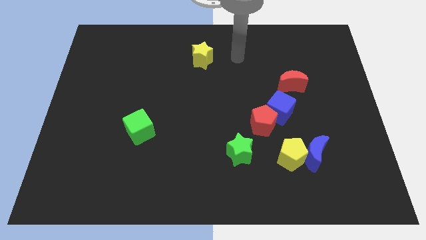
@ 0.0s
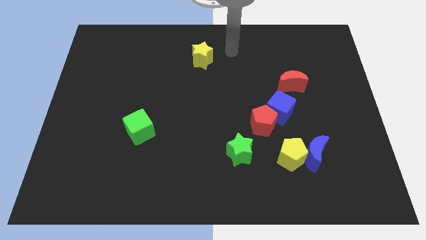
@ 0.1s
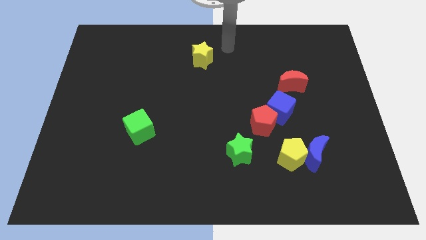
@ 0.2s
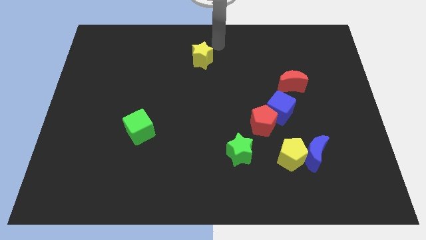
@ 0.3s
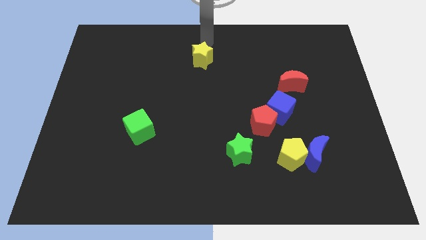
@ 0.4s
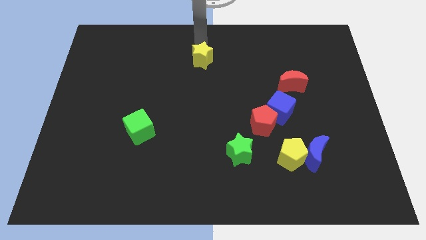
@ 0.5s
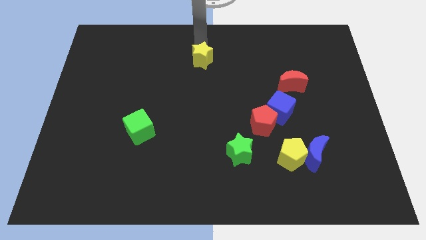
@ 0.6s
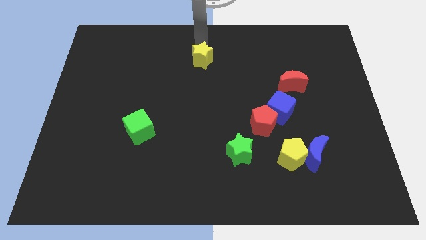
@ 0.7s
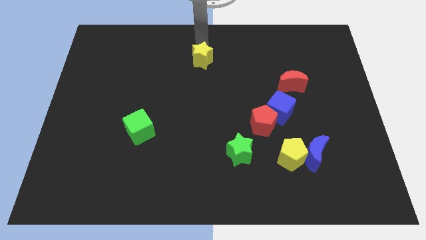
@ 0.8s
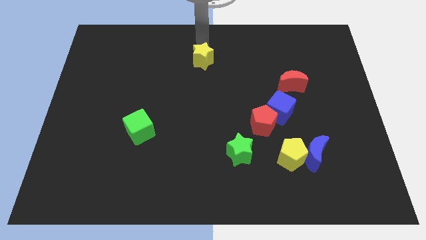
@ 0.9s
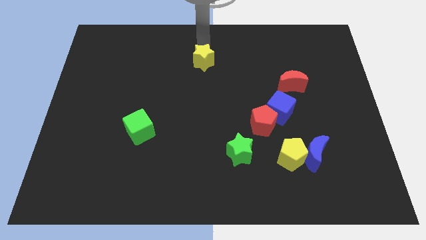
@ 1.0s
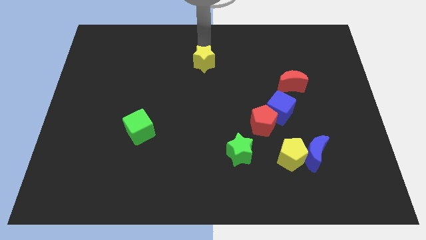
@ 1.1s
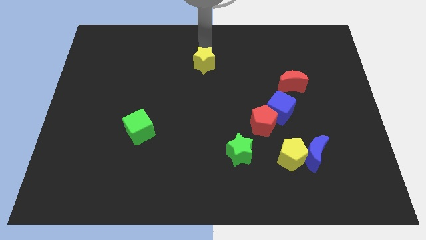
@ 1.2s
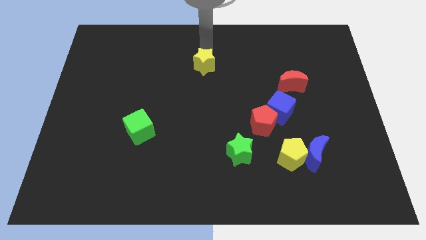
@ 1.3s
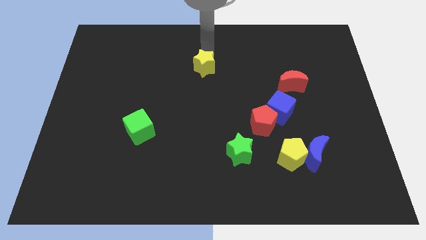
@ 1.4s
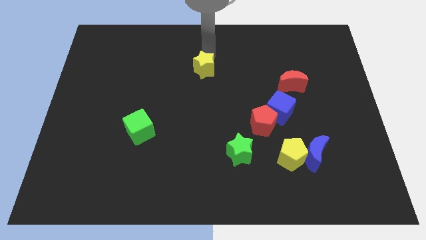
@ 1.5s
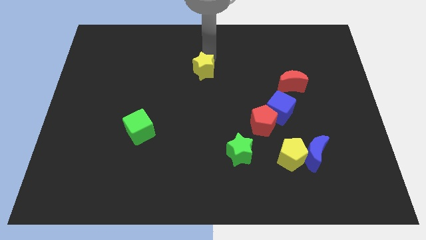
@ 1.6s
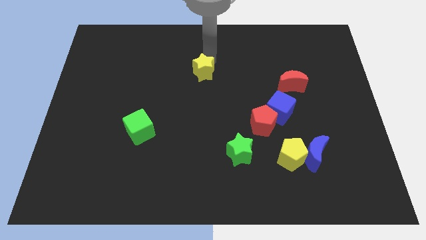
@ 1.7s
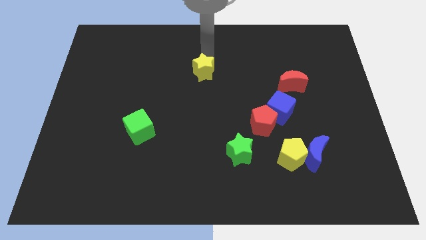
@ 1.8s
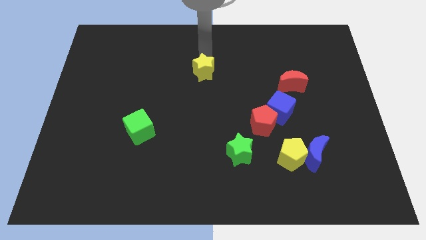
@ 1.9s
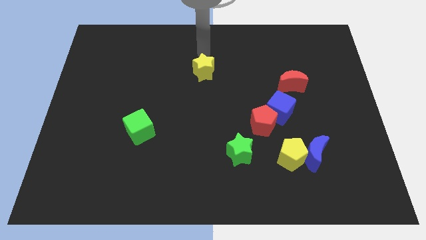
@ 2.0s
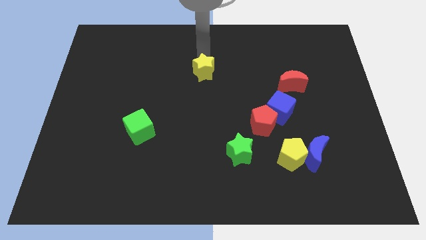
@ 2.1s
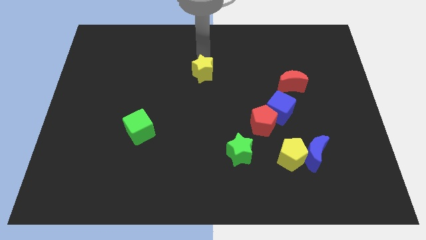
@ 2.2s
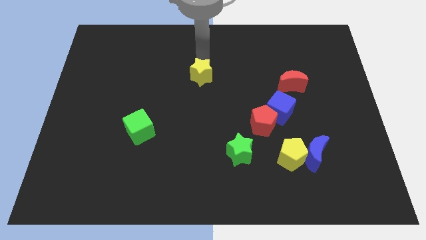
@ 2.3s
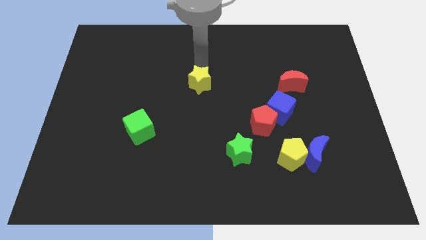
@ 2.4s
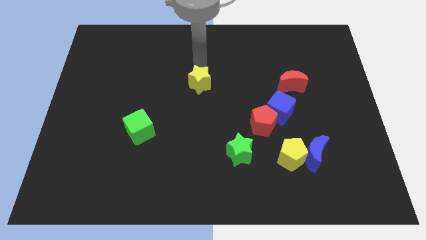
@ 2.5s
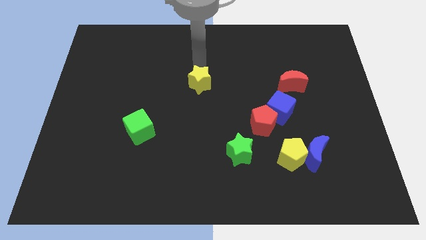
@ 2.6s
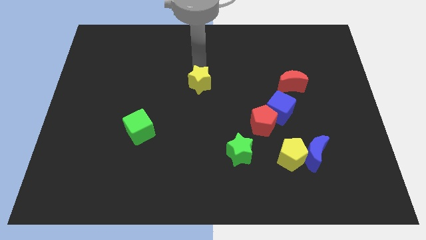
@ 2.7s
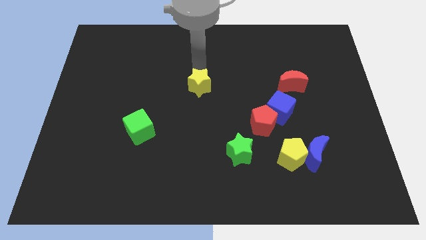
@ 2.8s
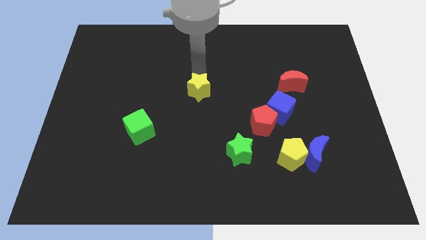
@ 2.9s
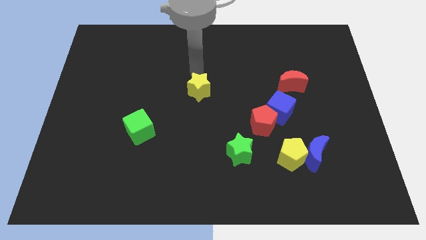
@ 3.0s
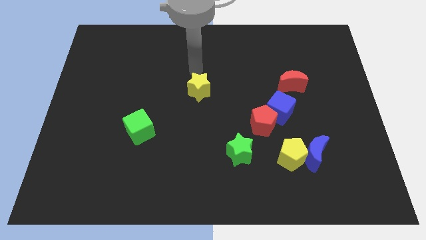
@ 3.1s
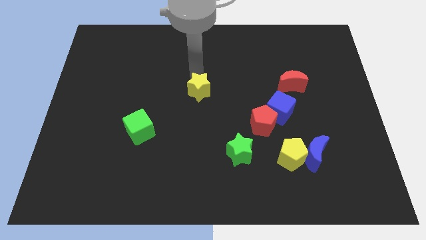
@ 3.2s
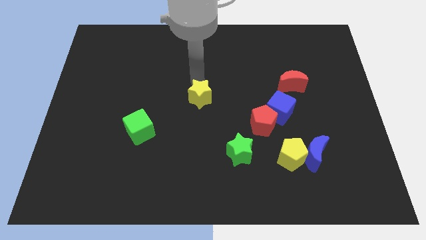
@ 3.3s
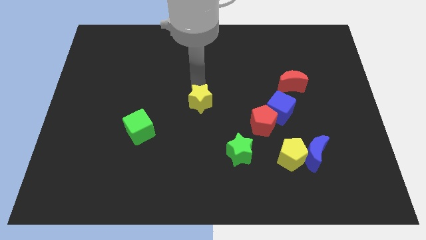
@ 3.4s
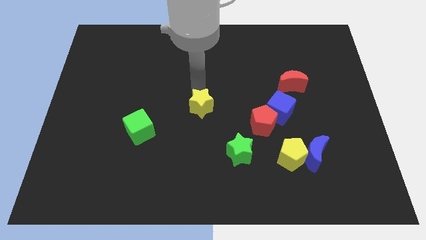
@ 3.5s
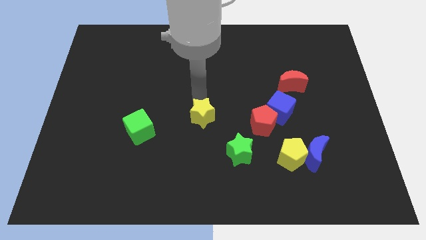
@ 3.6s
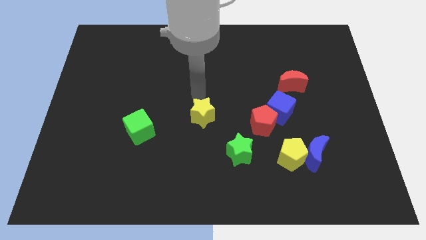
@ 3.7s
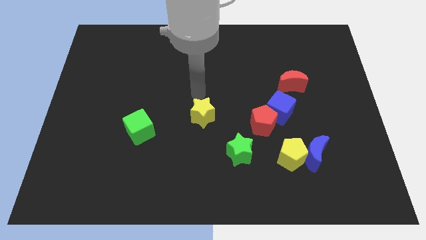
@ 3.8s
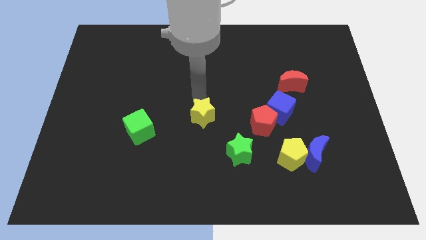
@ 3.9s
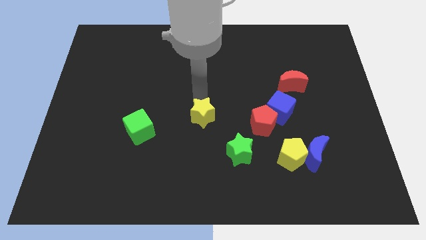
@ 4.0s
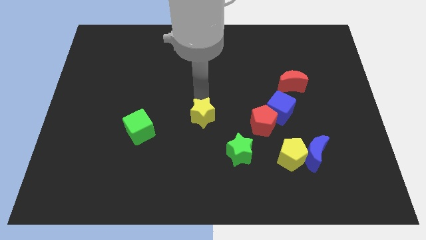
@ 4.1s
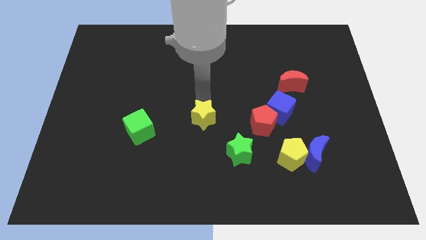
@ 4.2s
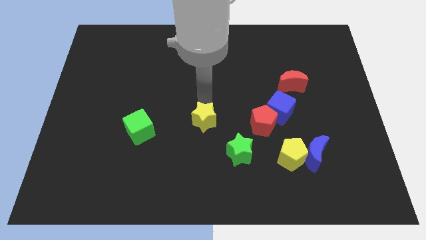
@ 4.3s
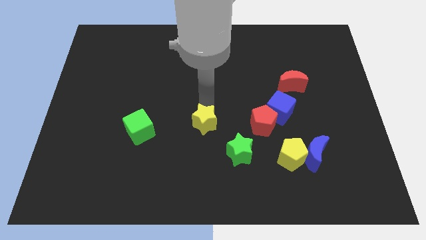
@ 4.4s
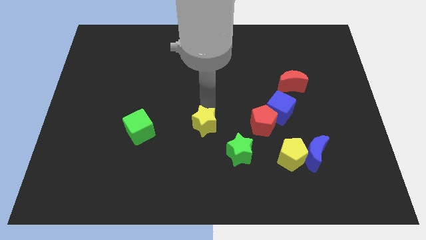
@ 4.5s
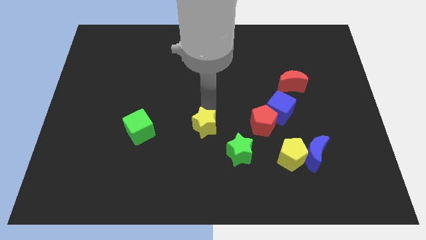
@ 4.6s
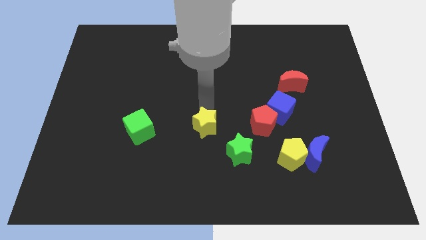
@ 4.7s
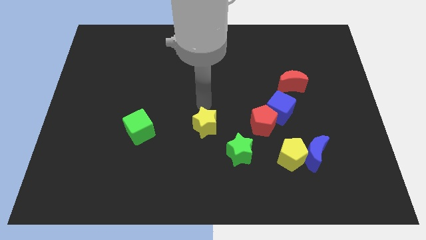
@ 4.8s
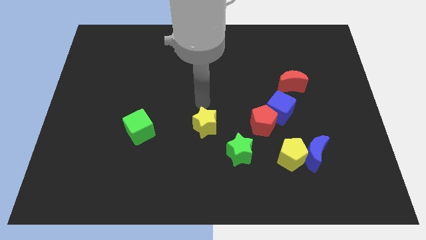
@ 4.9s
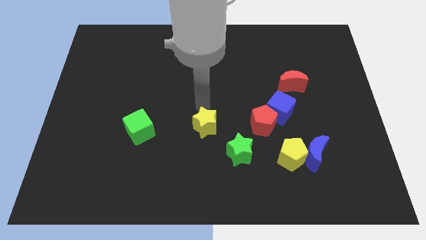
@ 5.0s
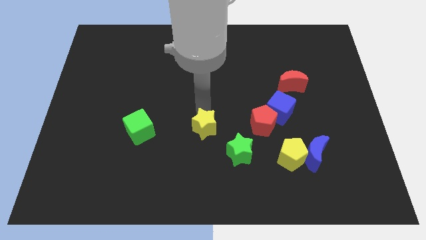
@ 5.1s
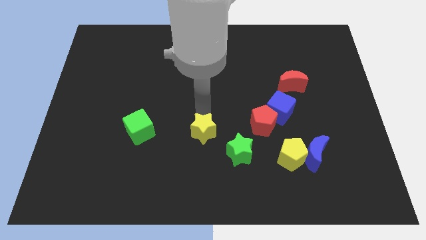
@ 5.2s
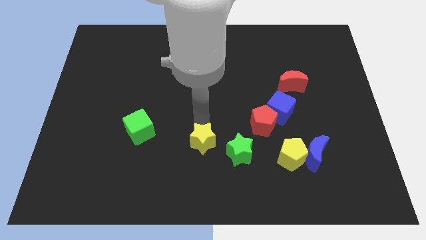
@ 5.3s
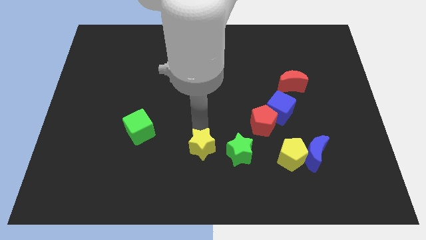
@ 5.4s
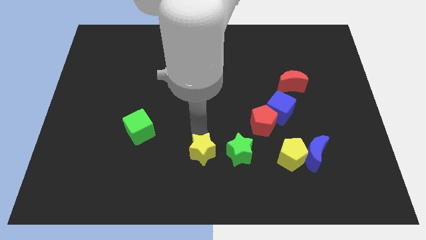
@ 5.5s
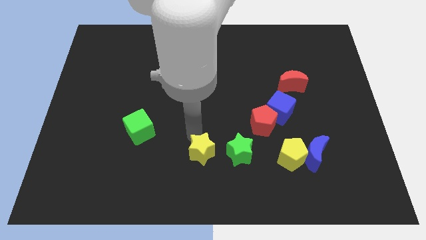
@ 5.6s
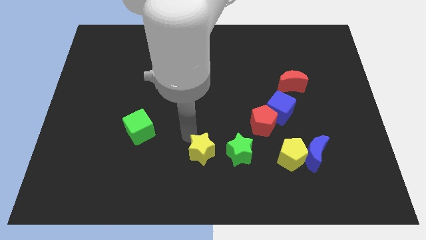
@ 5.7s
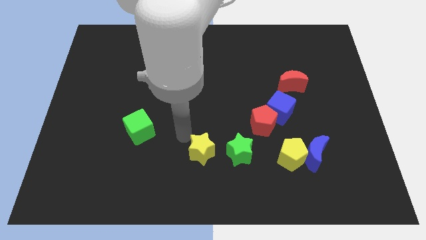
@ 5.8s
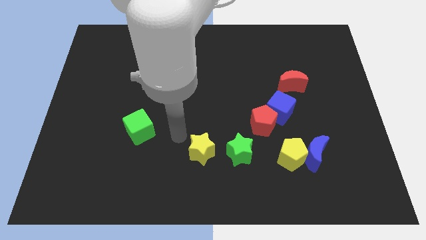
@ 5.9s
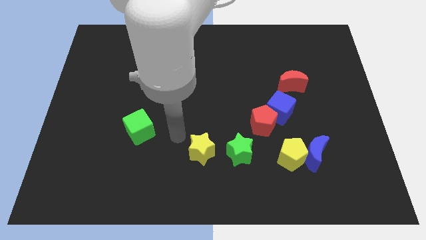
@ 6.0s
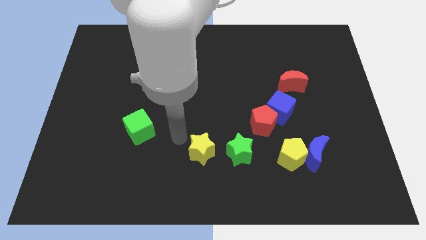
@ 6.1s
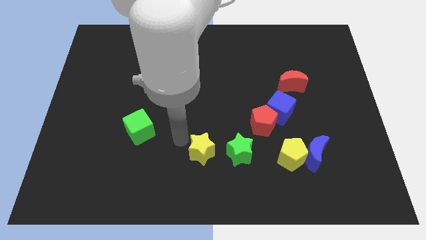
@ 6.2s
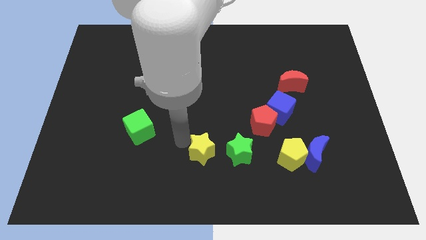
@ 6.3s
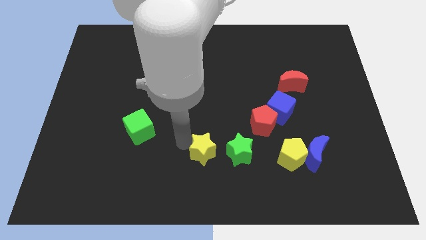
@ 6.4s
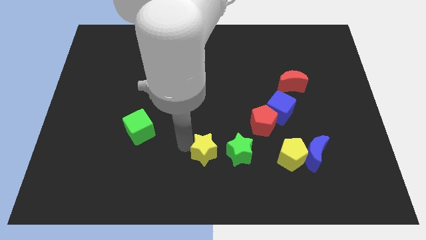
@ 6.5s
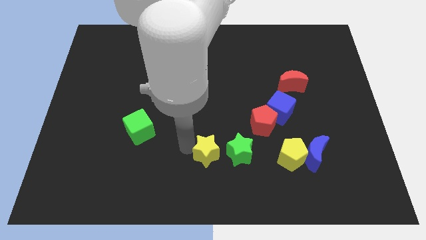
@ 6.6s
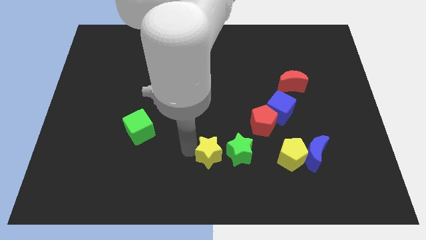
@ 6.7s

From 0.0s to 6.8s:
move the yellow star to the bottom left side of the green star

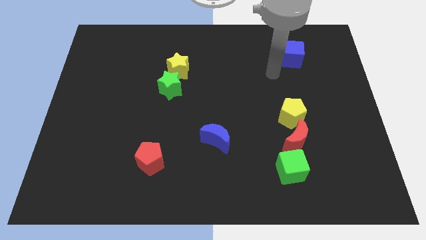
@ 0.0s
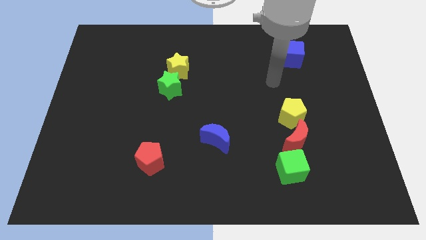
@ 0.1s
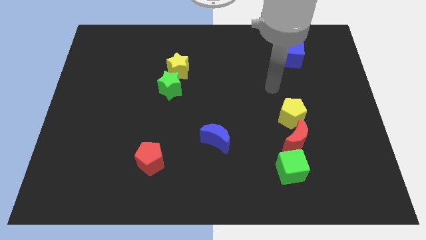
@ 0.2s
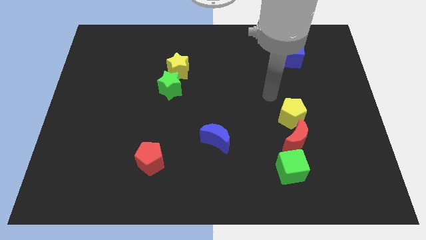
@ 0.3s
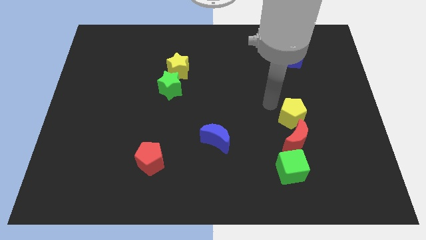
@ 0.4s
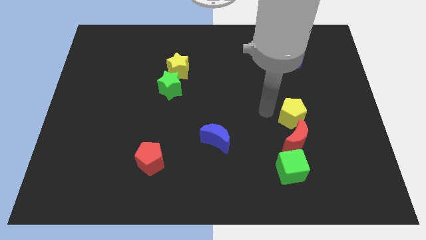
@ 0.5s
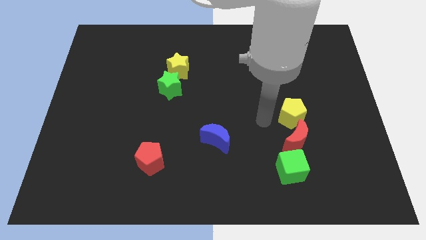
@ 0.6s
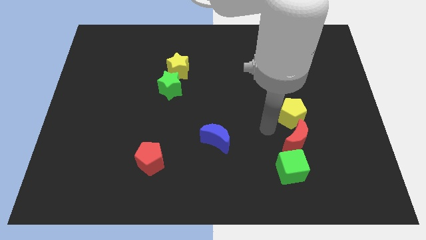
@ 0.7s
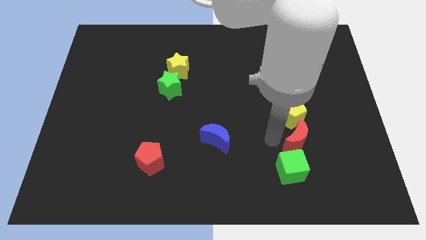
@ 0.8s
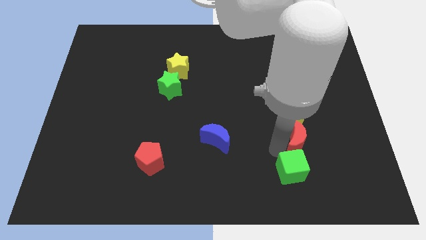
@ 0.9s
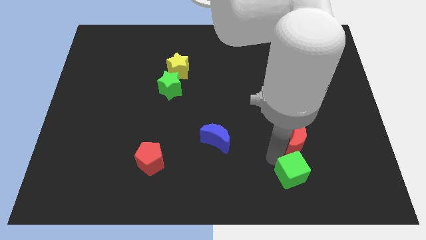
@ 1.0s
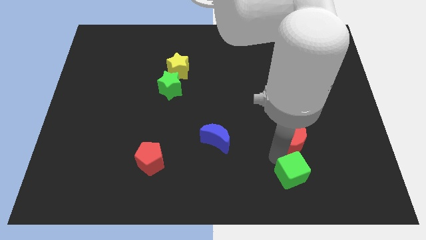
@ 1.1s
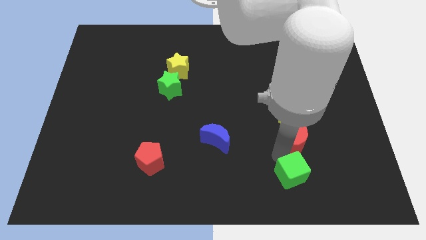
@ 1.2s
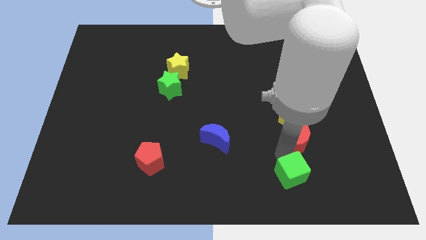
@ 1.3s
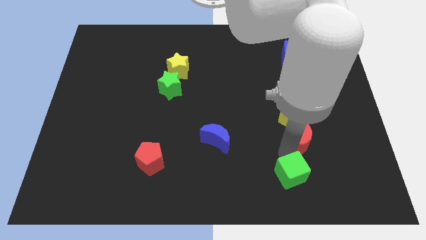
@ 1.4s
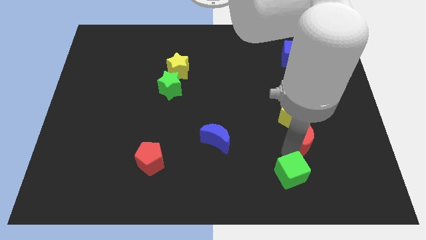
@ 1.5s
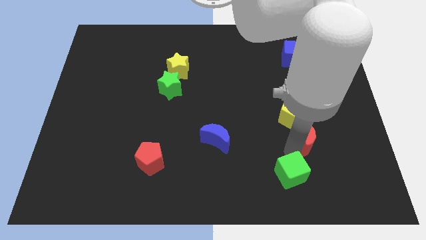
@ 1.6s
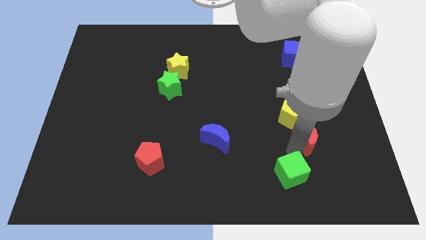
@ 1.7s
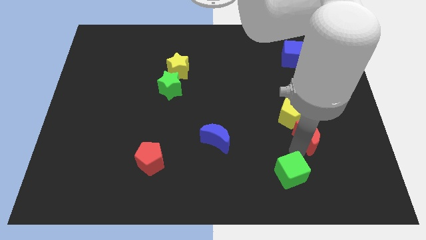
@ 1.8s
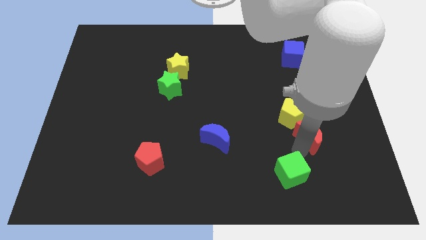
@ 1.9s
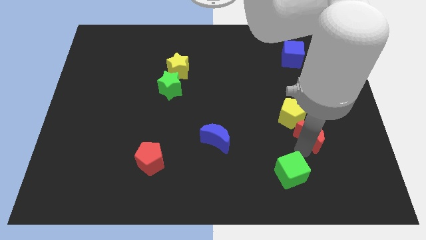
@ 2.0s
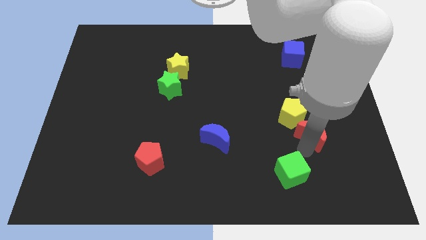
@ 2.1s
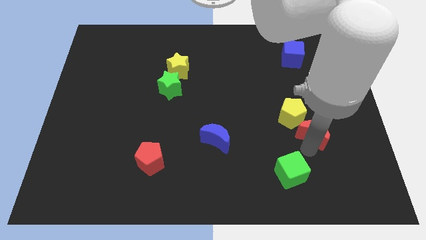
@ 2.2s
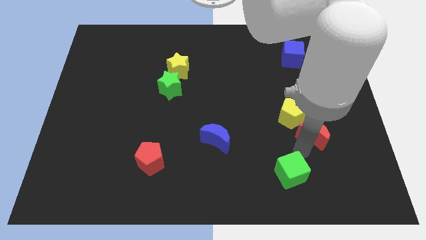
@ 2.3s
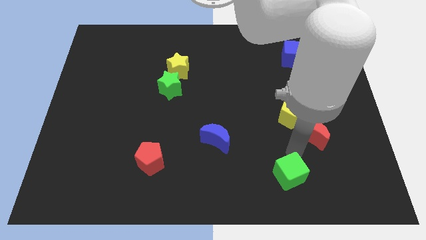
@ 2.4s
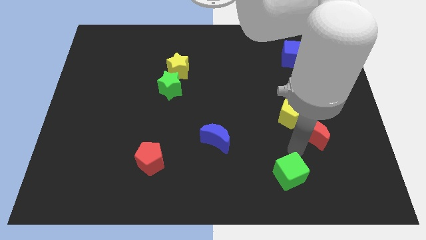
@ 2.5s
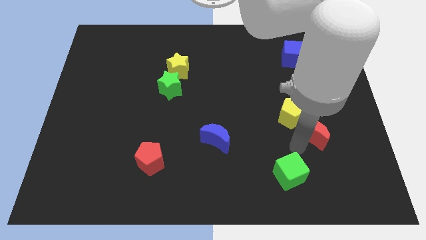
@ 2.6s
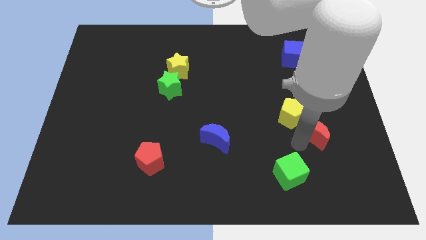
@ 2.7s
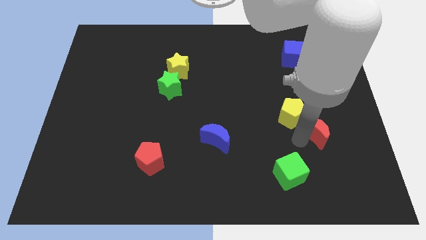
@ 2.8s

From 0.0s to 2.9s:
slide the red moon to the right of the yellow pentagon
